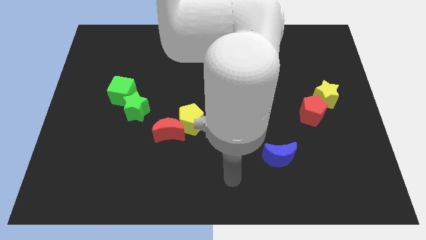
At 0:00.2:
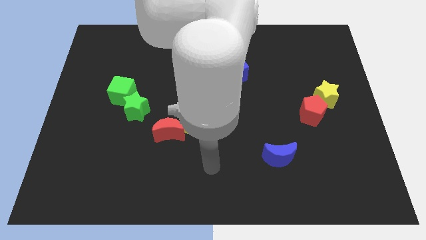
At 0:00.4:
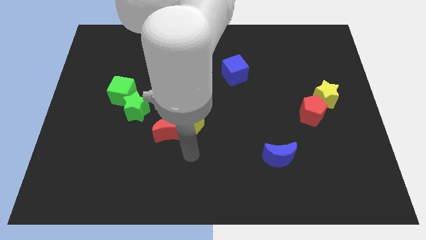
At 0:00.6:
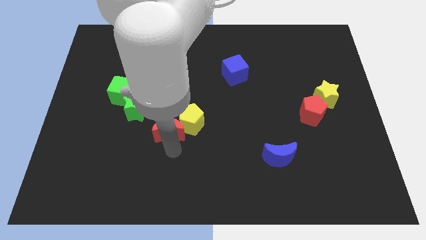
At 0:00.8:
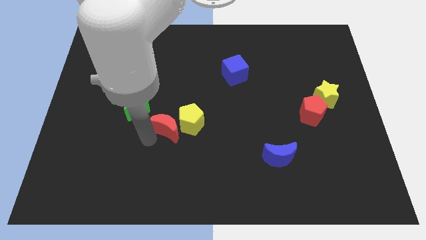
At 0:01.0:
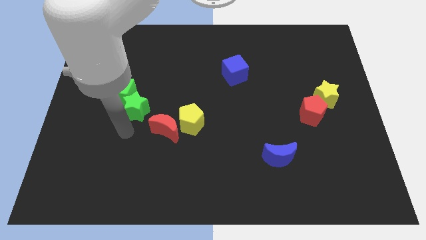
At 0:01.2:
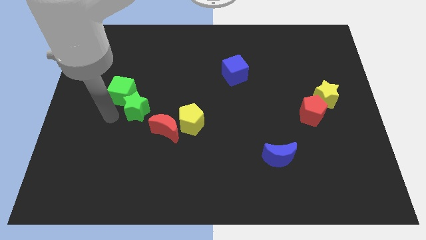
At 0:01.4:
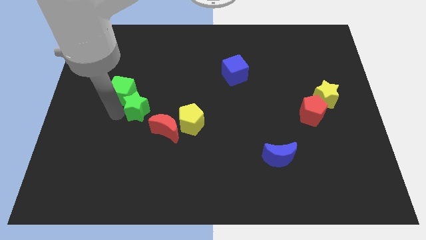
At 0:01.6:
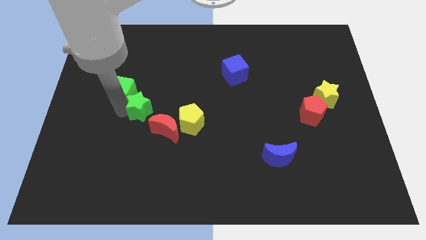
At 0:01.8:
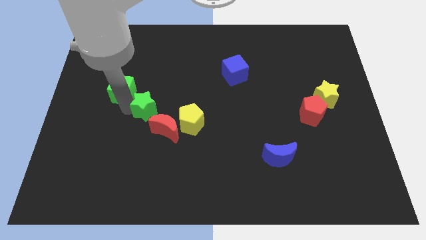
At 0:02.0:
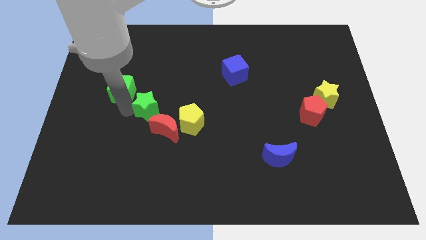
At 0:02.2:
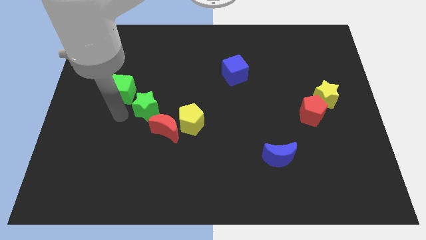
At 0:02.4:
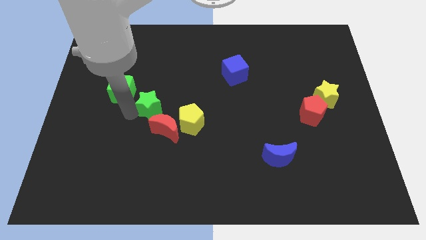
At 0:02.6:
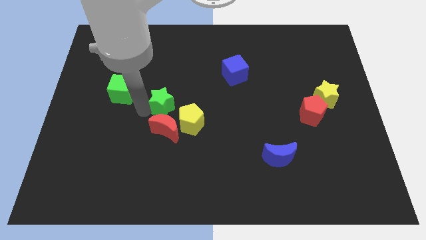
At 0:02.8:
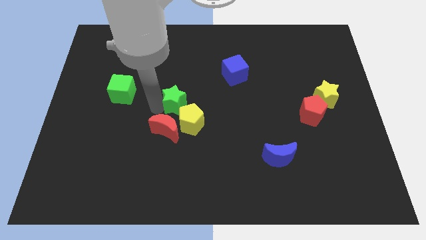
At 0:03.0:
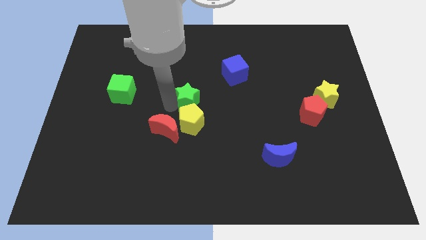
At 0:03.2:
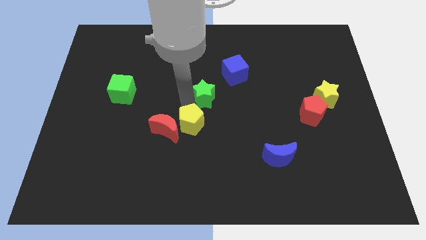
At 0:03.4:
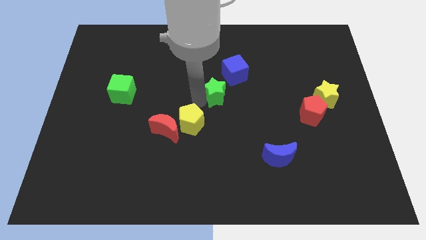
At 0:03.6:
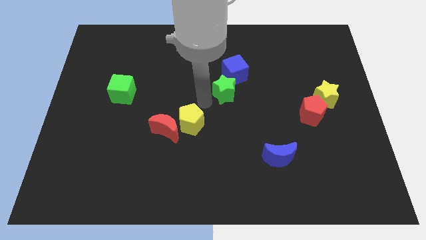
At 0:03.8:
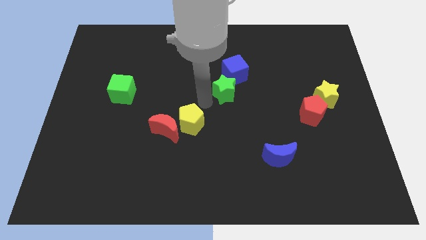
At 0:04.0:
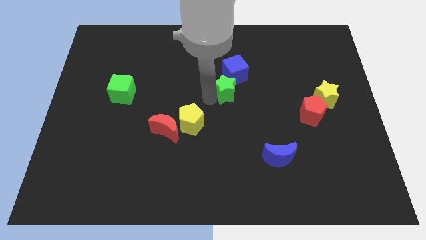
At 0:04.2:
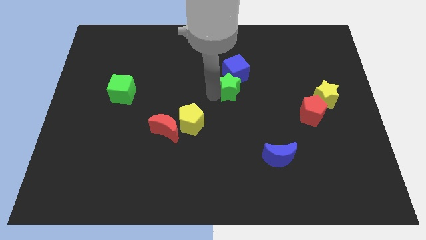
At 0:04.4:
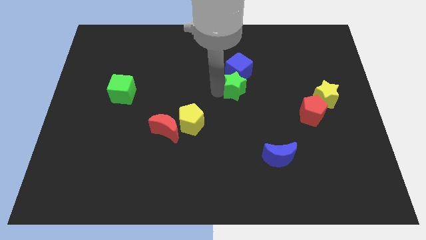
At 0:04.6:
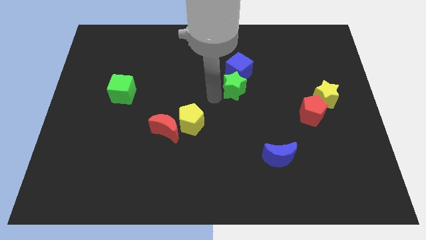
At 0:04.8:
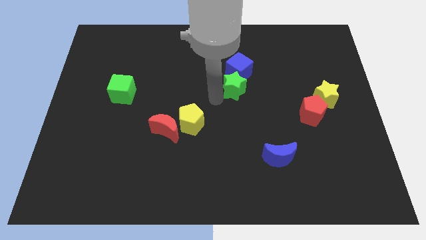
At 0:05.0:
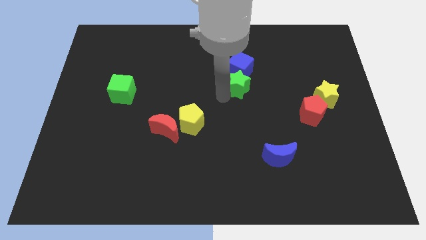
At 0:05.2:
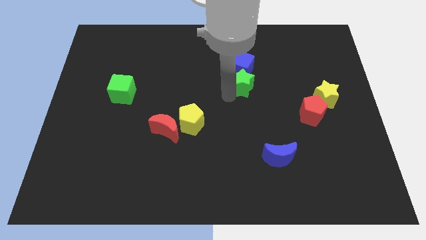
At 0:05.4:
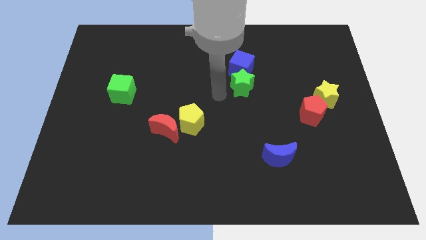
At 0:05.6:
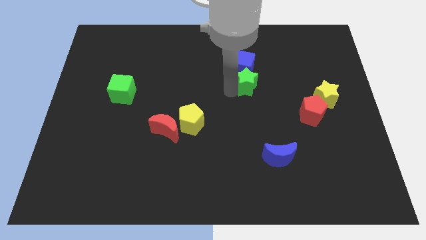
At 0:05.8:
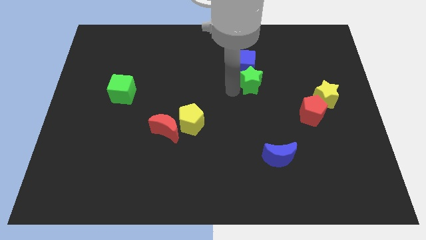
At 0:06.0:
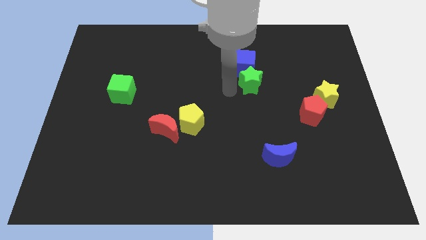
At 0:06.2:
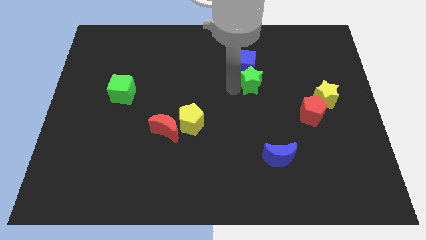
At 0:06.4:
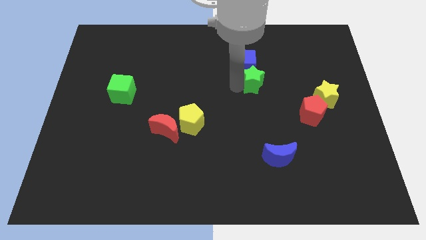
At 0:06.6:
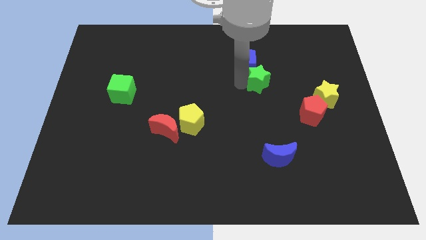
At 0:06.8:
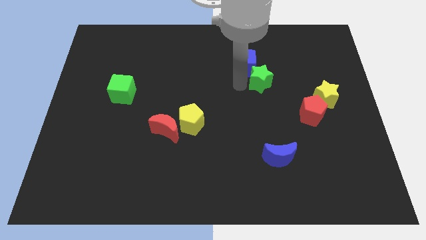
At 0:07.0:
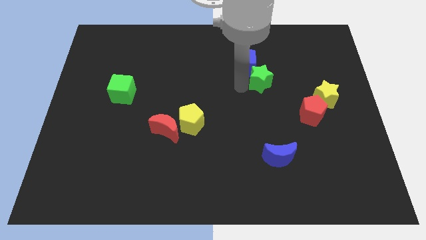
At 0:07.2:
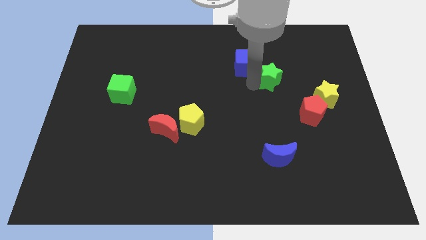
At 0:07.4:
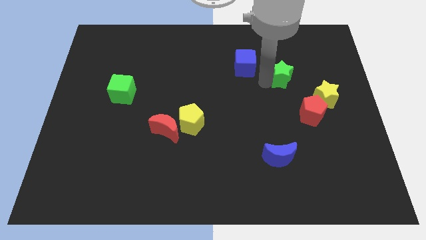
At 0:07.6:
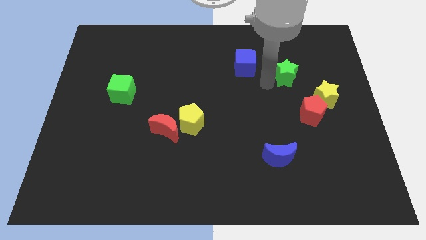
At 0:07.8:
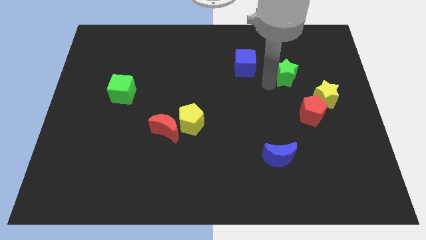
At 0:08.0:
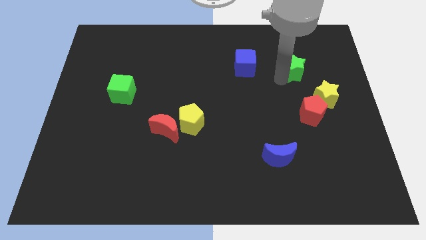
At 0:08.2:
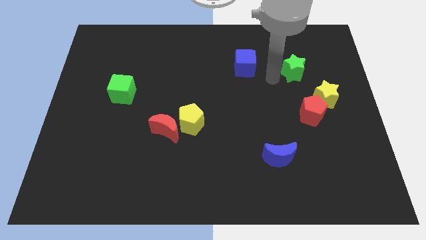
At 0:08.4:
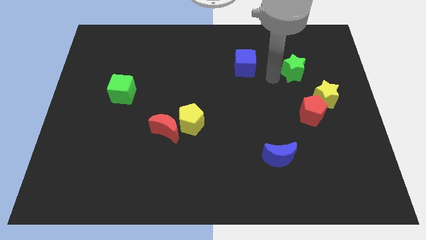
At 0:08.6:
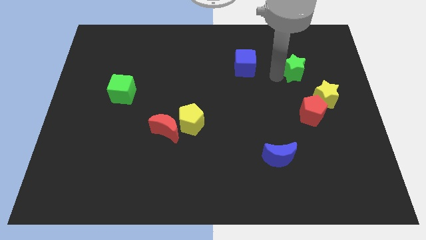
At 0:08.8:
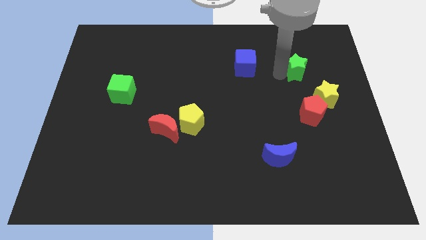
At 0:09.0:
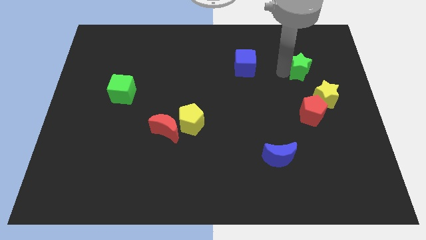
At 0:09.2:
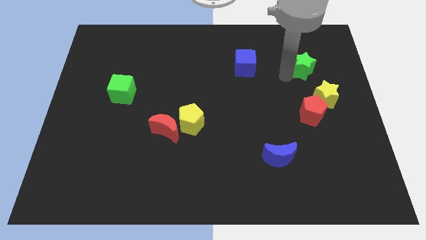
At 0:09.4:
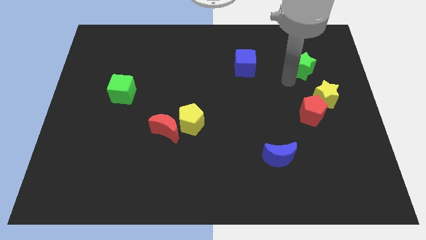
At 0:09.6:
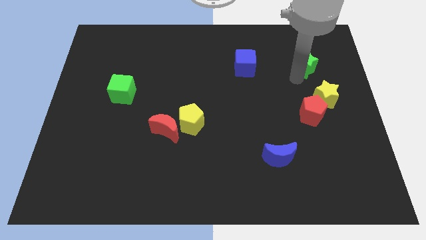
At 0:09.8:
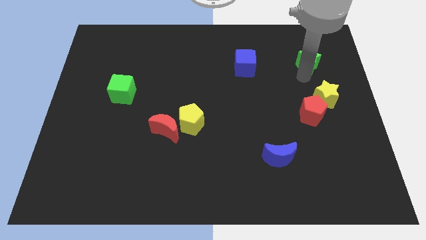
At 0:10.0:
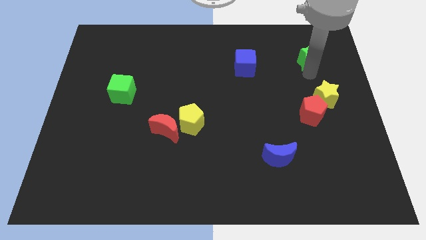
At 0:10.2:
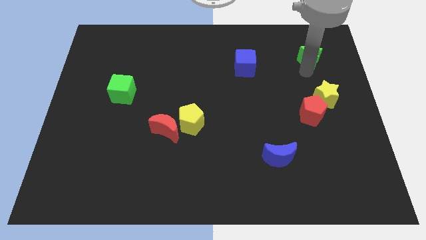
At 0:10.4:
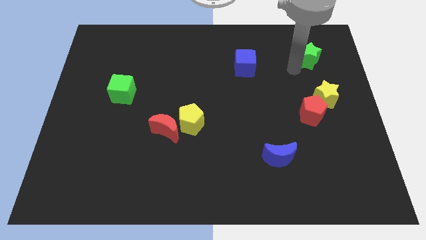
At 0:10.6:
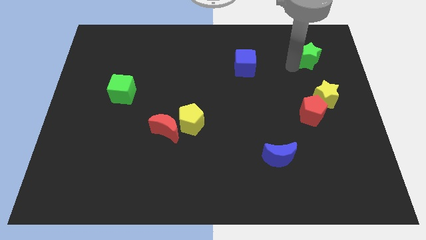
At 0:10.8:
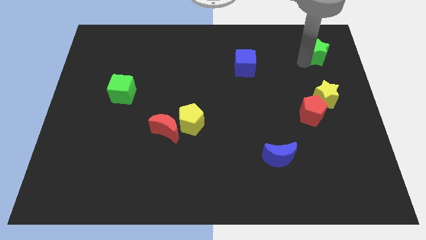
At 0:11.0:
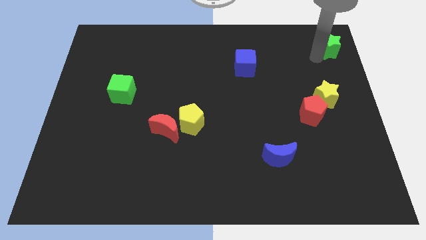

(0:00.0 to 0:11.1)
push the green star to the upper right corner

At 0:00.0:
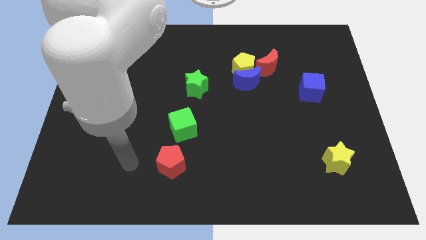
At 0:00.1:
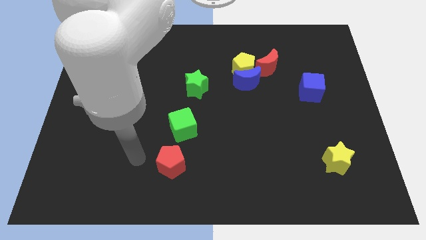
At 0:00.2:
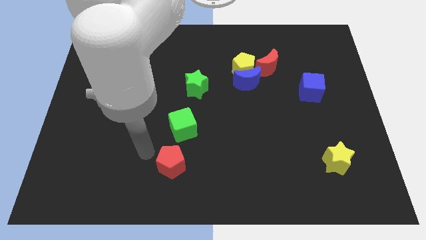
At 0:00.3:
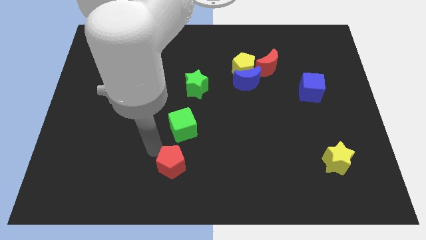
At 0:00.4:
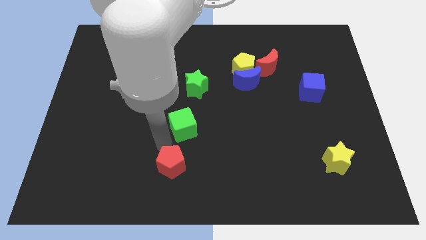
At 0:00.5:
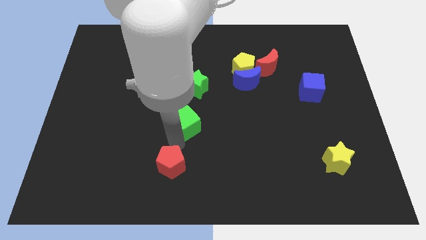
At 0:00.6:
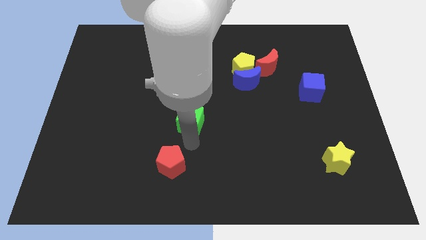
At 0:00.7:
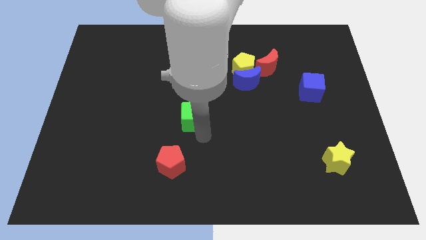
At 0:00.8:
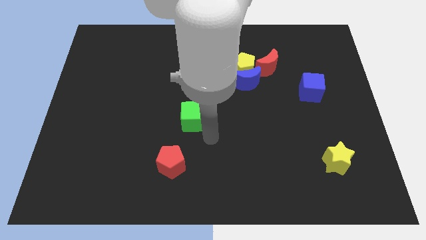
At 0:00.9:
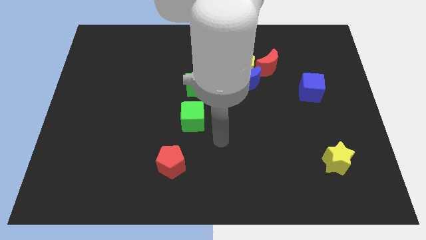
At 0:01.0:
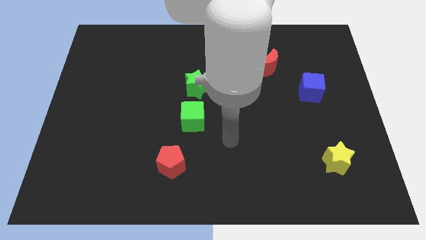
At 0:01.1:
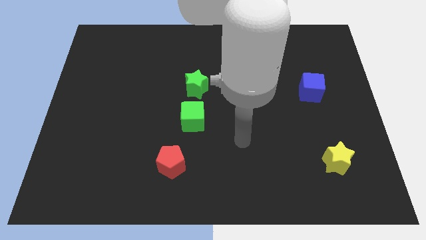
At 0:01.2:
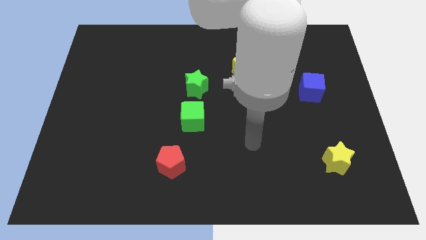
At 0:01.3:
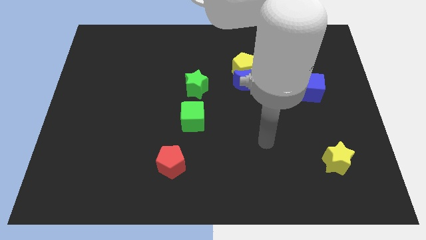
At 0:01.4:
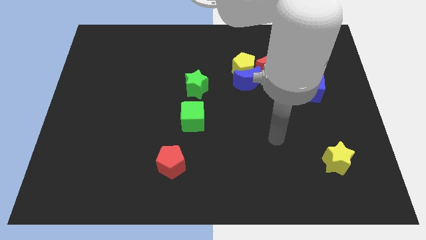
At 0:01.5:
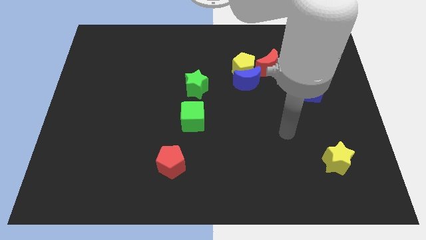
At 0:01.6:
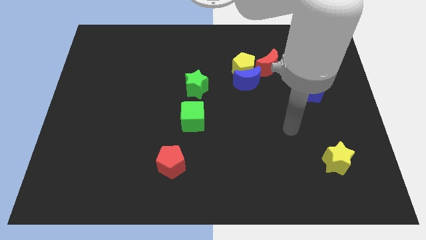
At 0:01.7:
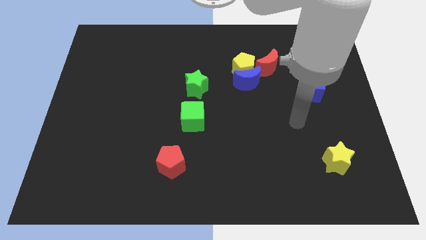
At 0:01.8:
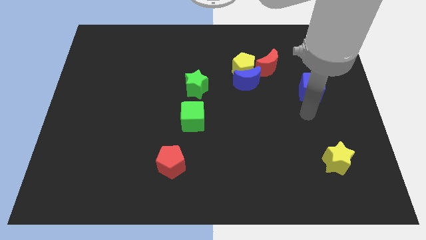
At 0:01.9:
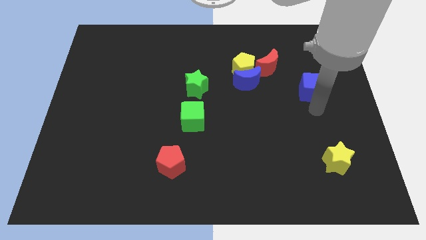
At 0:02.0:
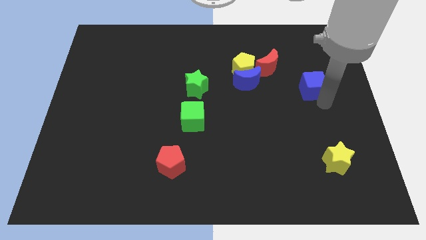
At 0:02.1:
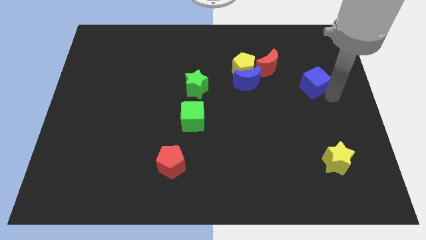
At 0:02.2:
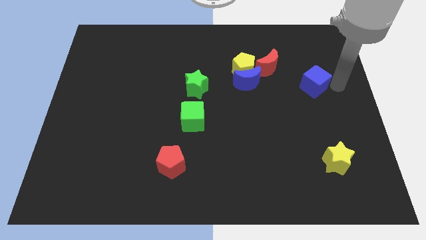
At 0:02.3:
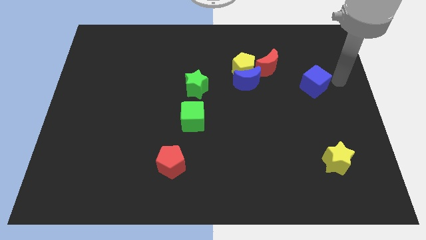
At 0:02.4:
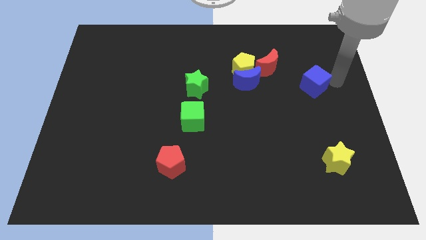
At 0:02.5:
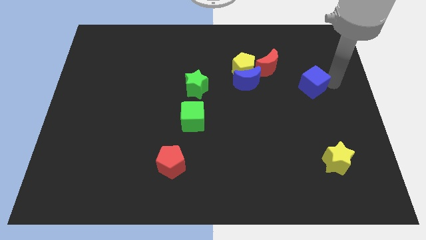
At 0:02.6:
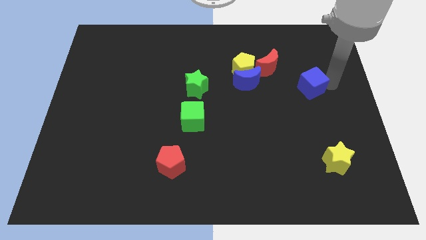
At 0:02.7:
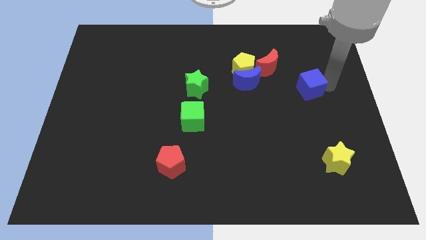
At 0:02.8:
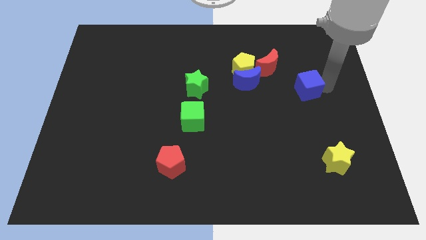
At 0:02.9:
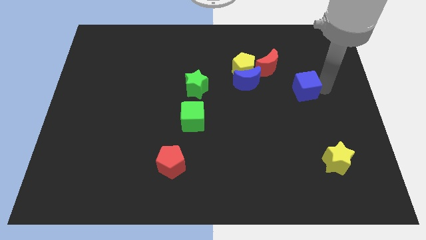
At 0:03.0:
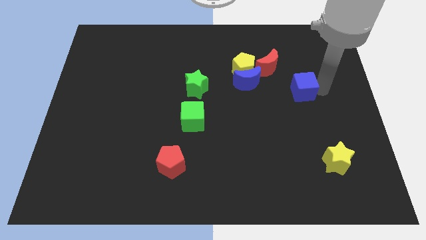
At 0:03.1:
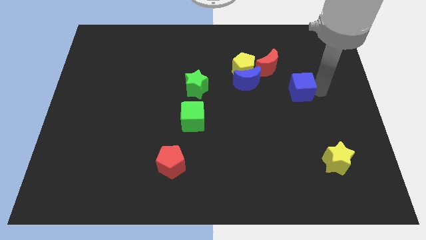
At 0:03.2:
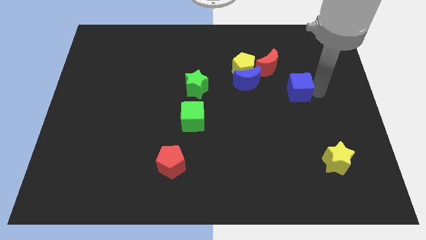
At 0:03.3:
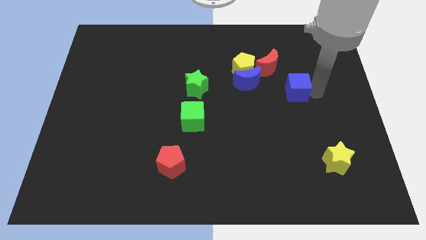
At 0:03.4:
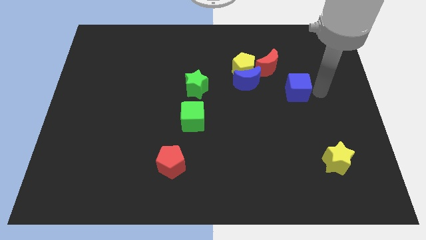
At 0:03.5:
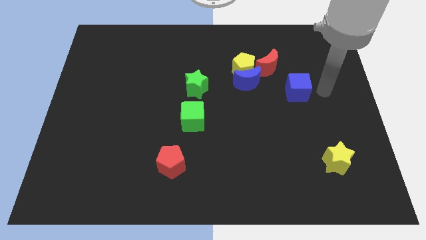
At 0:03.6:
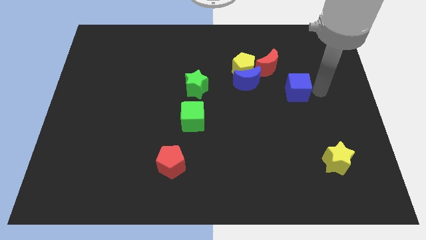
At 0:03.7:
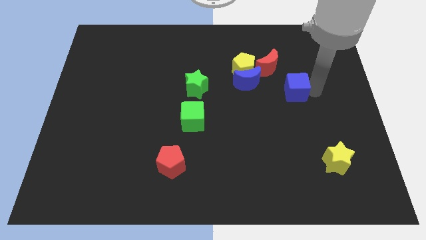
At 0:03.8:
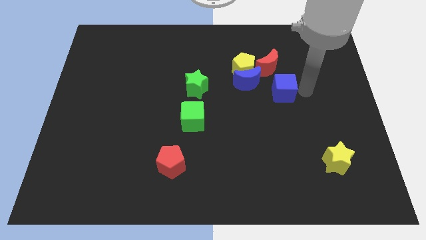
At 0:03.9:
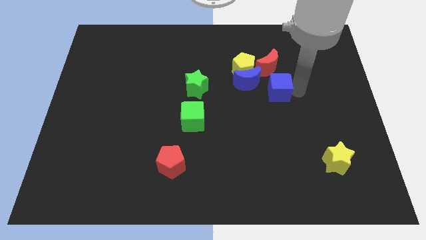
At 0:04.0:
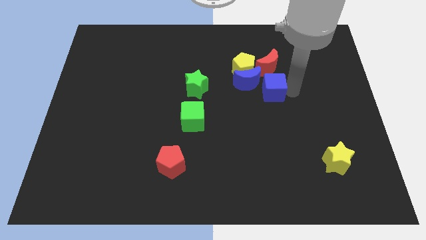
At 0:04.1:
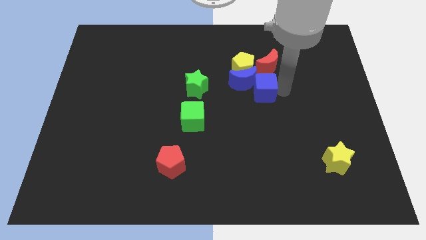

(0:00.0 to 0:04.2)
move the blue cube to the middle
